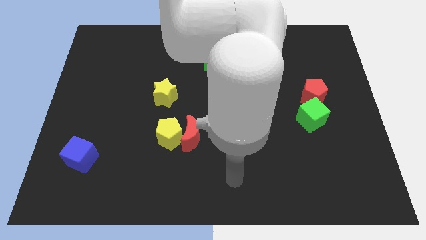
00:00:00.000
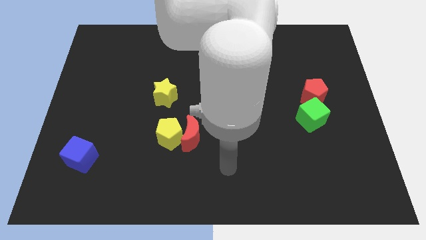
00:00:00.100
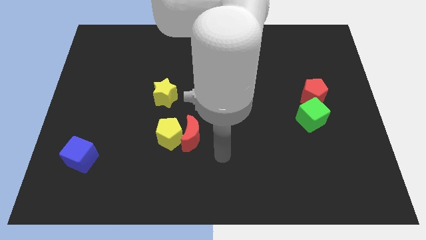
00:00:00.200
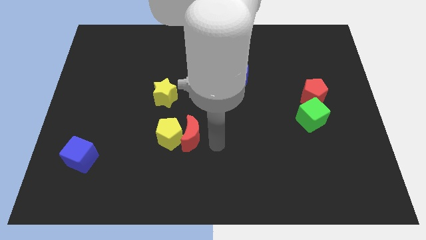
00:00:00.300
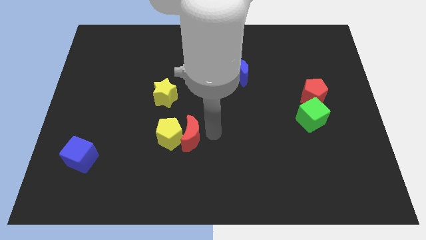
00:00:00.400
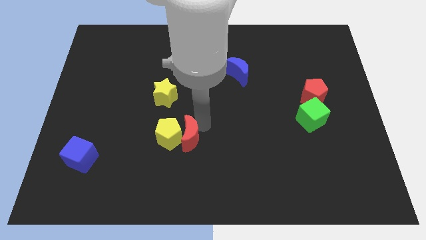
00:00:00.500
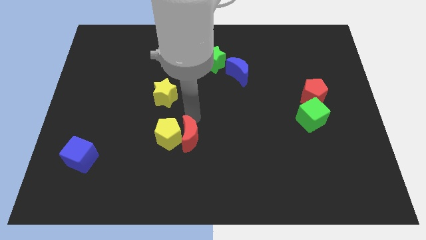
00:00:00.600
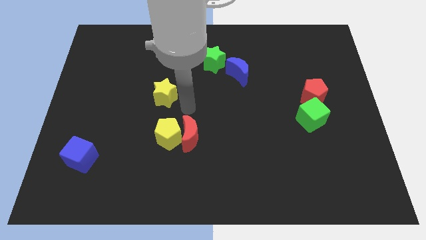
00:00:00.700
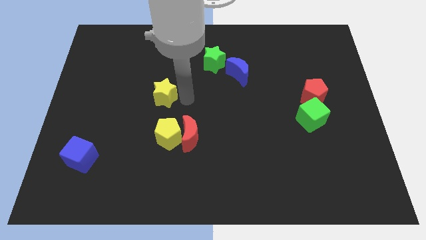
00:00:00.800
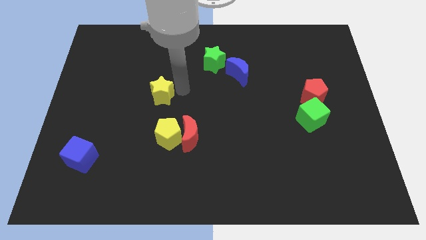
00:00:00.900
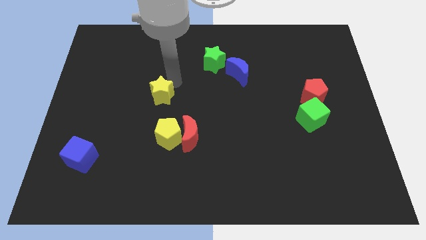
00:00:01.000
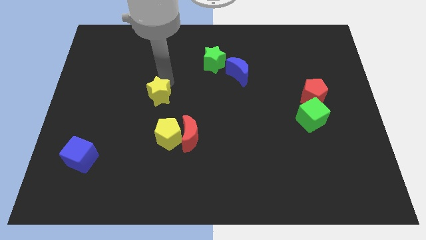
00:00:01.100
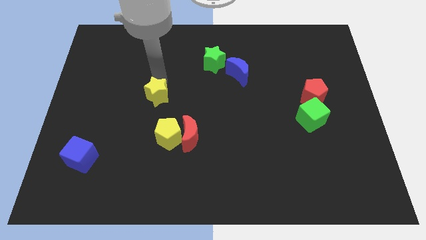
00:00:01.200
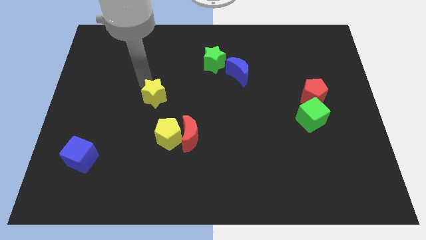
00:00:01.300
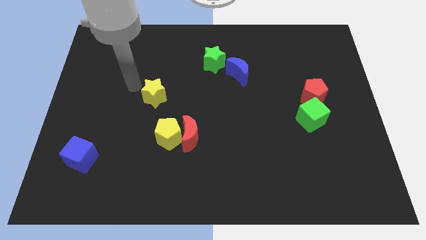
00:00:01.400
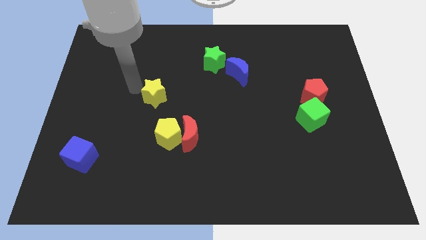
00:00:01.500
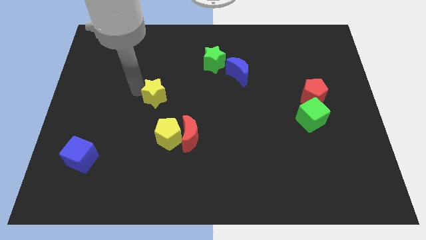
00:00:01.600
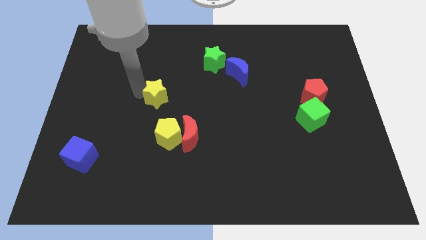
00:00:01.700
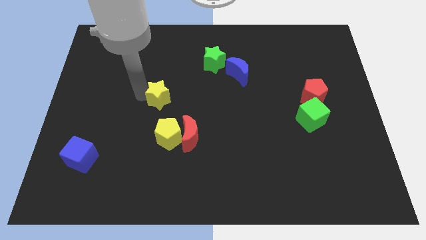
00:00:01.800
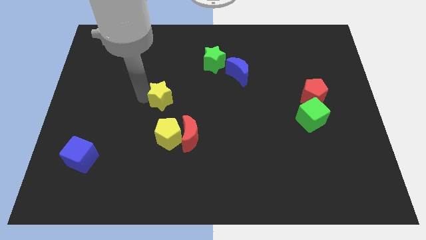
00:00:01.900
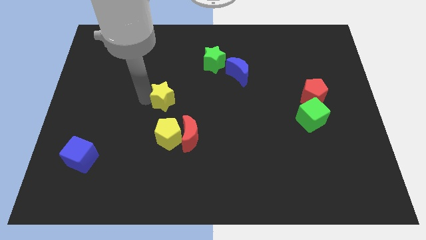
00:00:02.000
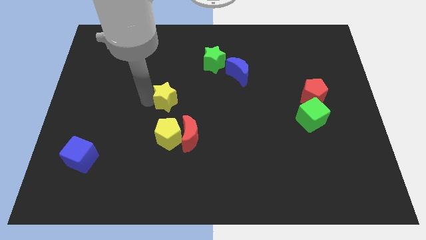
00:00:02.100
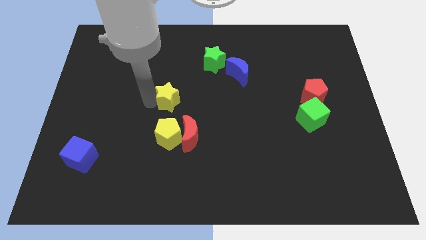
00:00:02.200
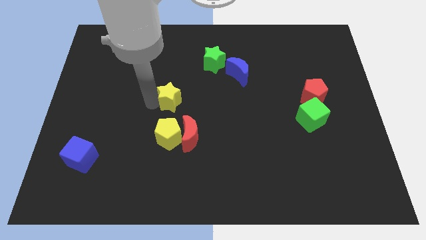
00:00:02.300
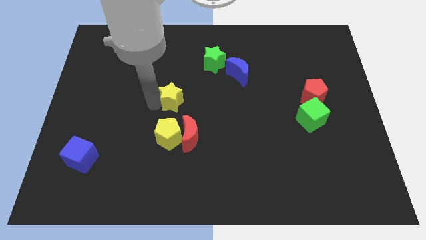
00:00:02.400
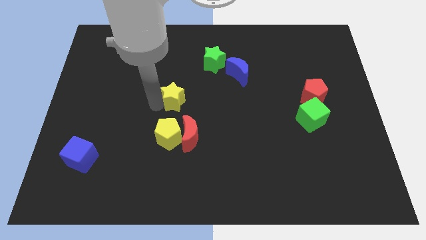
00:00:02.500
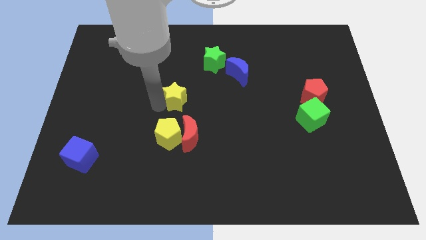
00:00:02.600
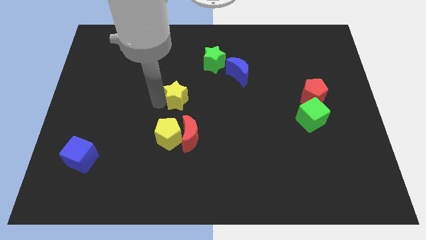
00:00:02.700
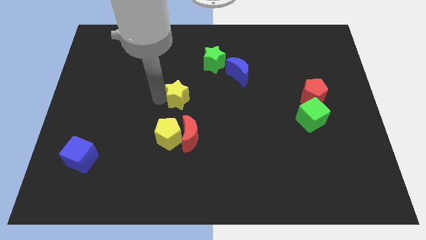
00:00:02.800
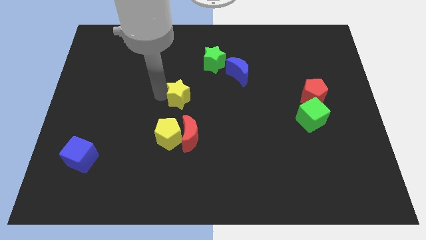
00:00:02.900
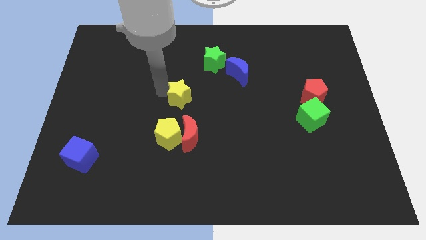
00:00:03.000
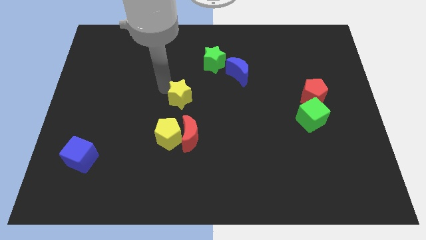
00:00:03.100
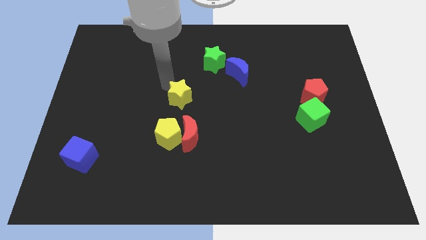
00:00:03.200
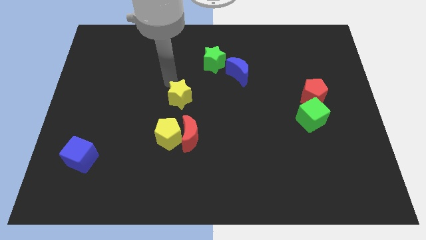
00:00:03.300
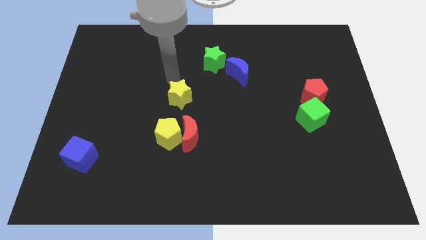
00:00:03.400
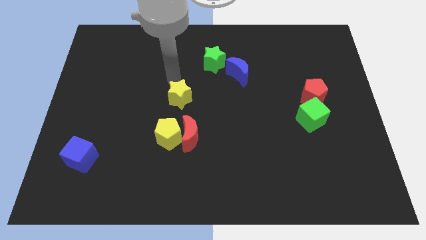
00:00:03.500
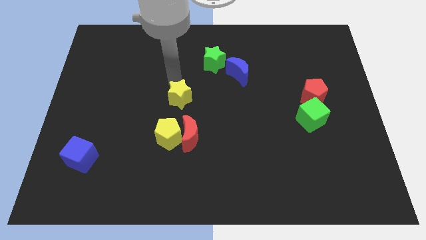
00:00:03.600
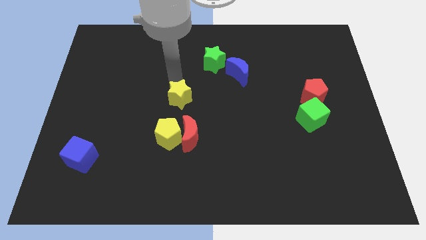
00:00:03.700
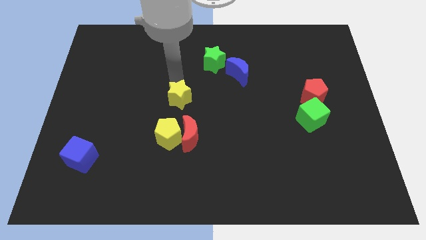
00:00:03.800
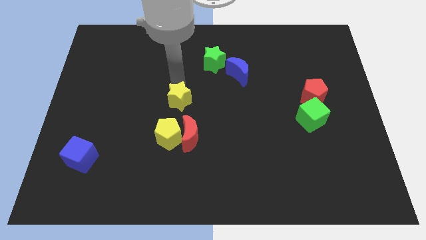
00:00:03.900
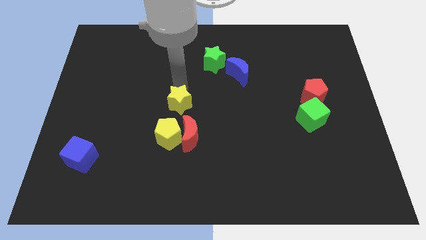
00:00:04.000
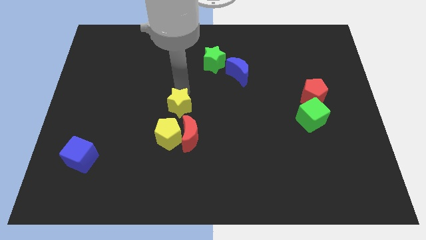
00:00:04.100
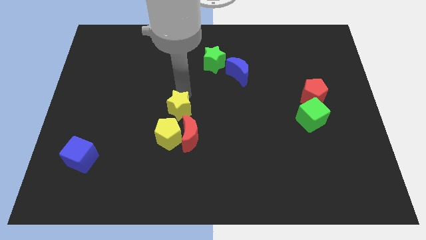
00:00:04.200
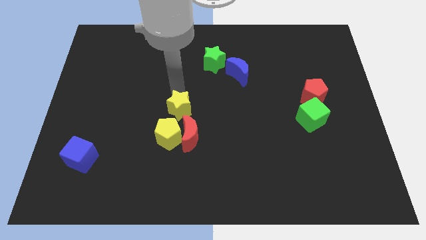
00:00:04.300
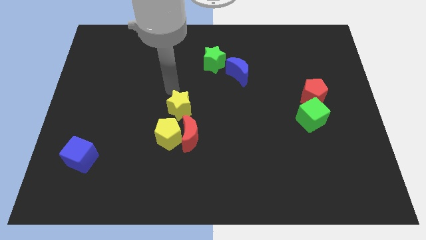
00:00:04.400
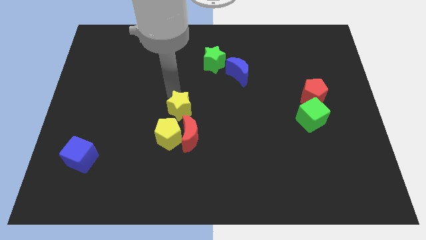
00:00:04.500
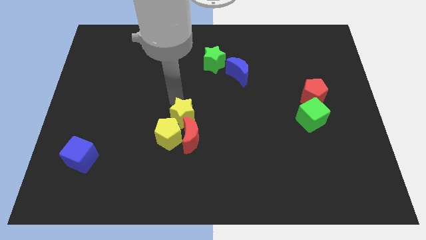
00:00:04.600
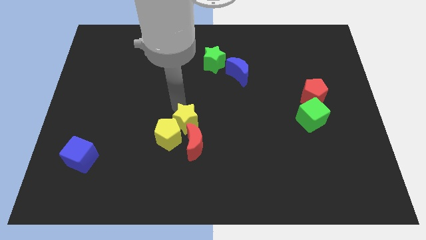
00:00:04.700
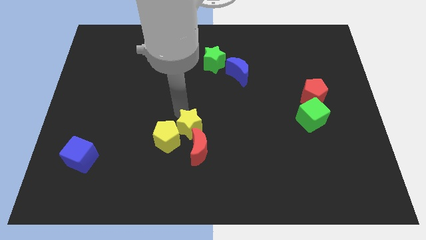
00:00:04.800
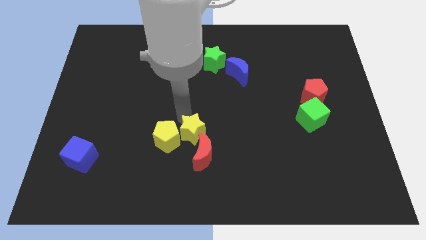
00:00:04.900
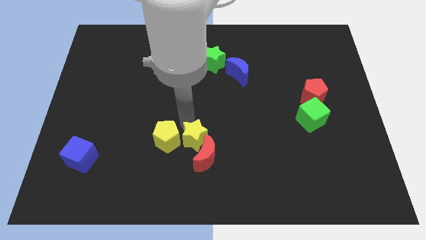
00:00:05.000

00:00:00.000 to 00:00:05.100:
slide the yellow star close to the red moon

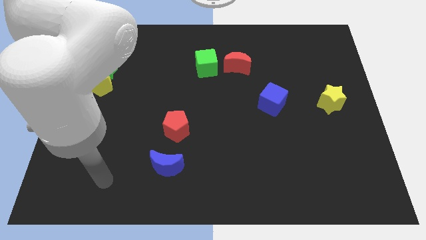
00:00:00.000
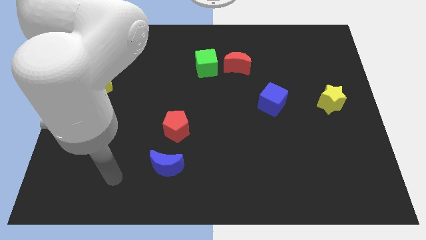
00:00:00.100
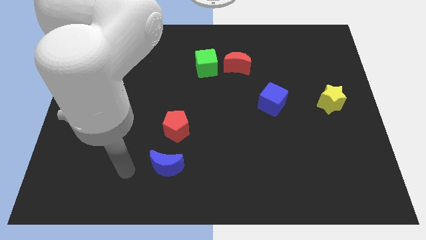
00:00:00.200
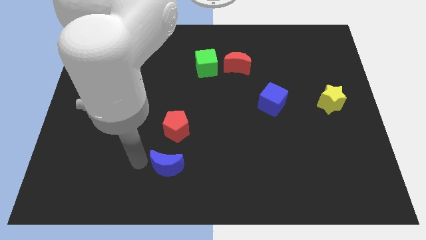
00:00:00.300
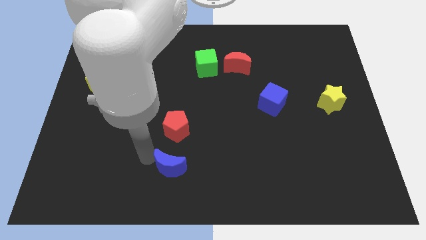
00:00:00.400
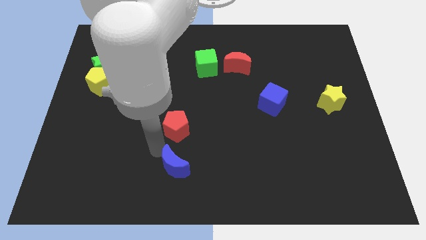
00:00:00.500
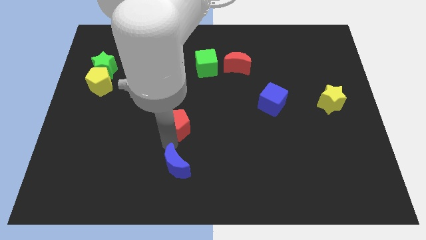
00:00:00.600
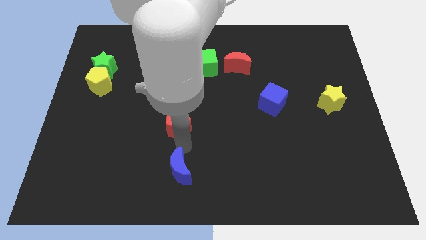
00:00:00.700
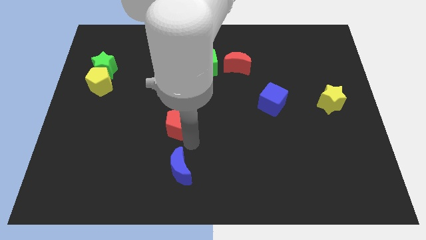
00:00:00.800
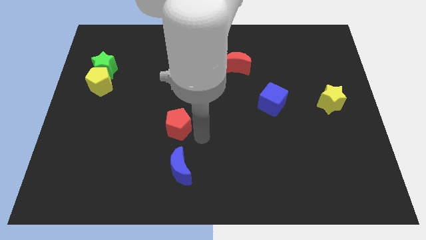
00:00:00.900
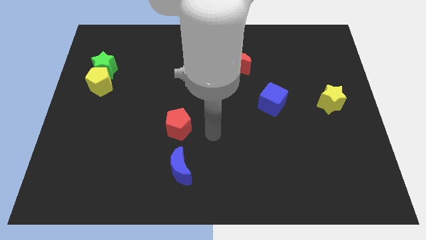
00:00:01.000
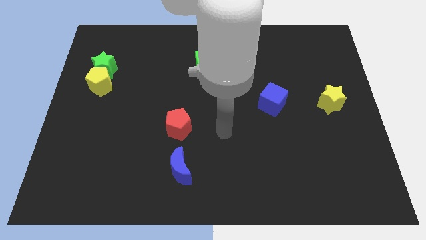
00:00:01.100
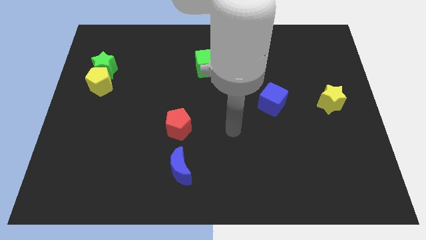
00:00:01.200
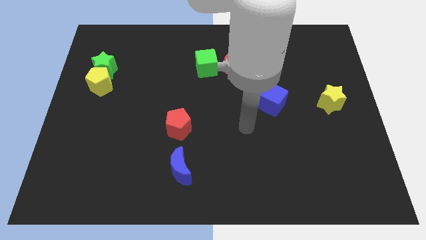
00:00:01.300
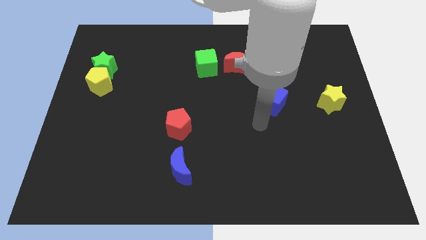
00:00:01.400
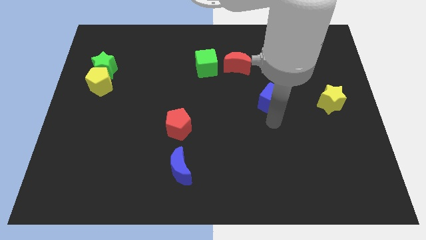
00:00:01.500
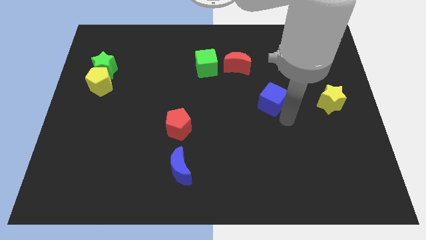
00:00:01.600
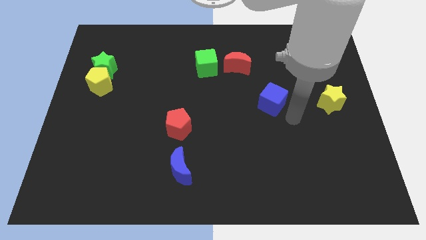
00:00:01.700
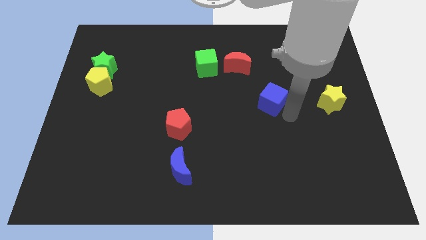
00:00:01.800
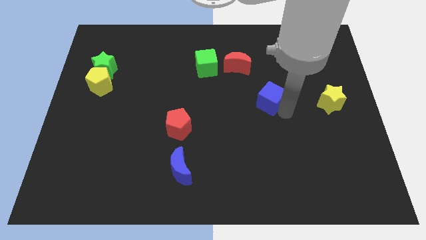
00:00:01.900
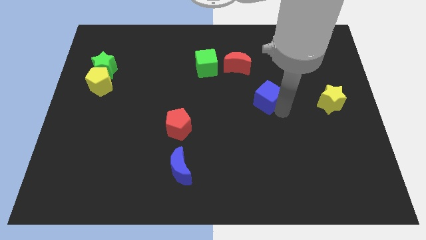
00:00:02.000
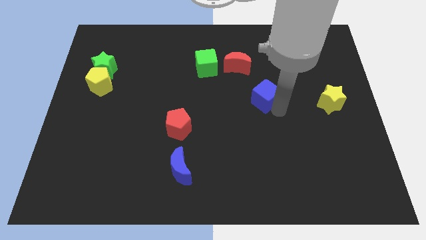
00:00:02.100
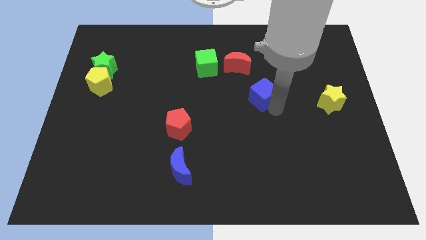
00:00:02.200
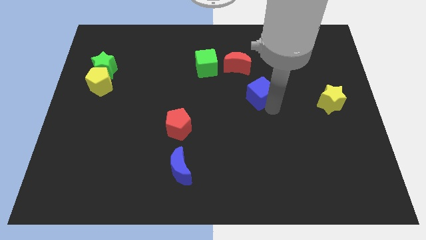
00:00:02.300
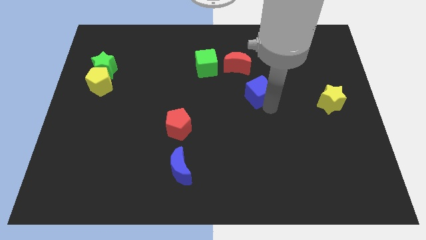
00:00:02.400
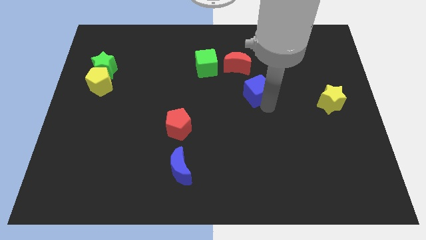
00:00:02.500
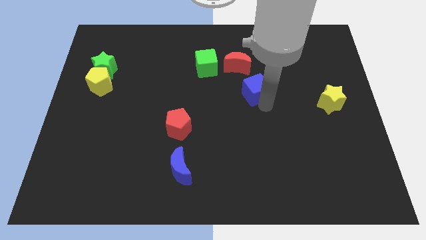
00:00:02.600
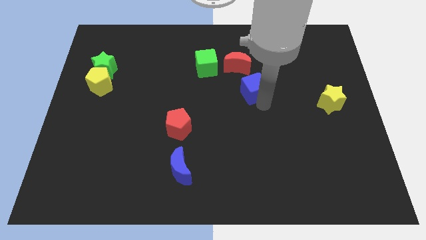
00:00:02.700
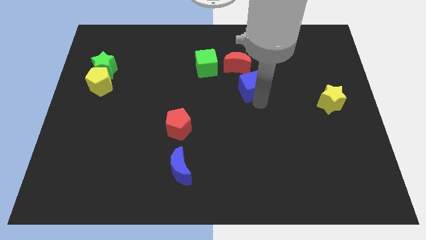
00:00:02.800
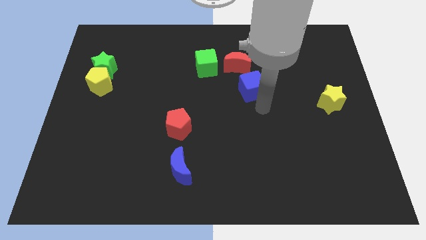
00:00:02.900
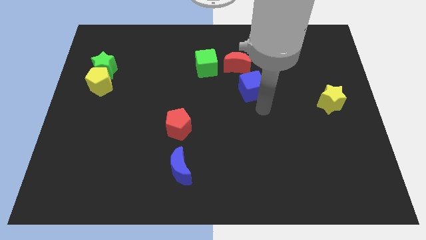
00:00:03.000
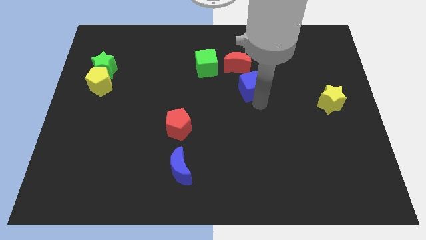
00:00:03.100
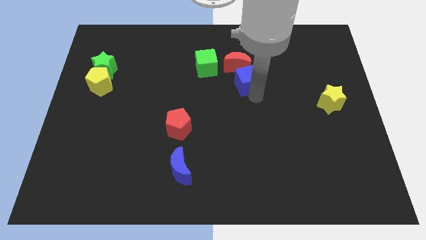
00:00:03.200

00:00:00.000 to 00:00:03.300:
push the blue cube to the red moon
